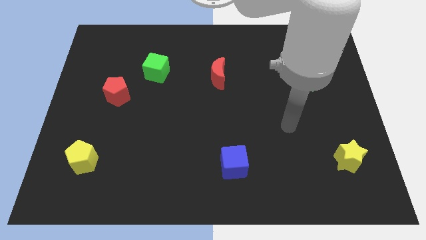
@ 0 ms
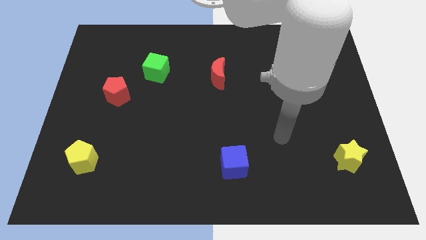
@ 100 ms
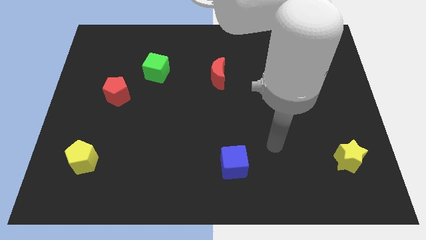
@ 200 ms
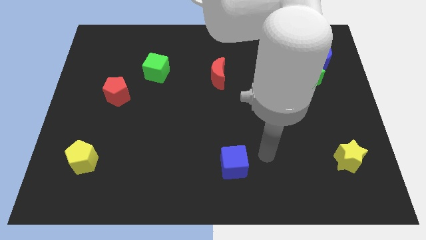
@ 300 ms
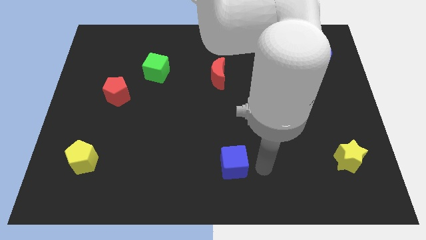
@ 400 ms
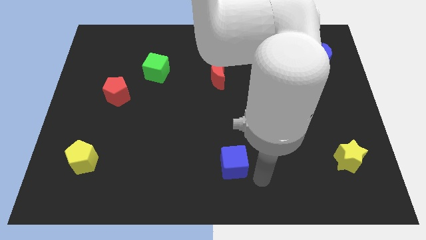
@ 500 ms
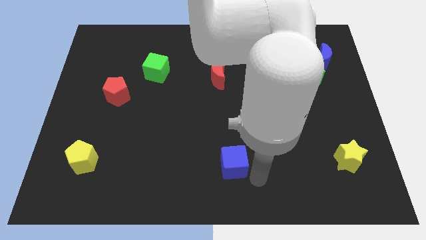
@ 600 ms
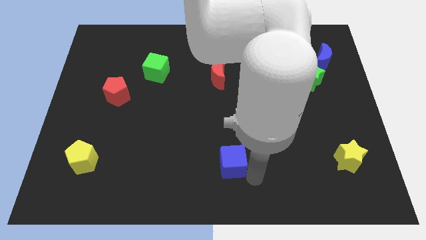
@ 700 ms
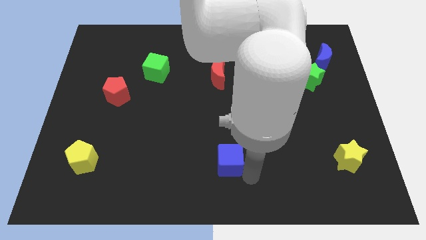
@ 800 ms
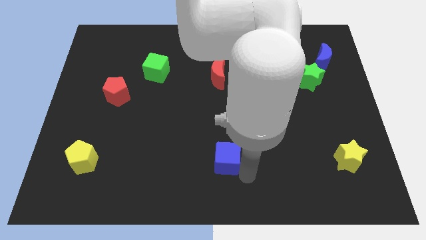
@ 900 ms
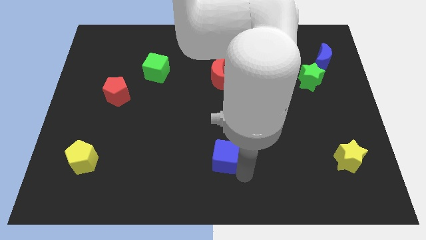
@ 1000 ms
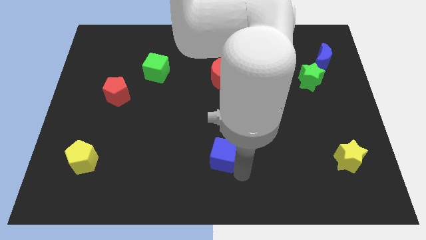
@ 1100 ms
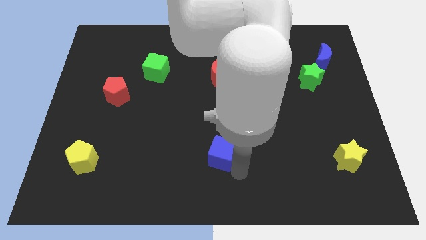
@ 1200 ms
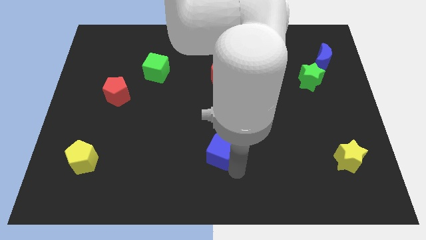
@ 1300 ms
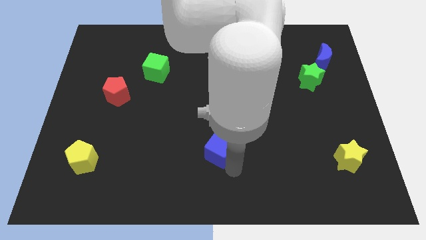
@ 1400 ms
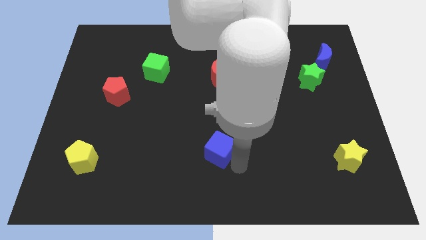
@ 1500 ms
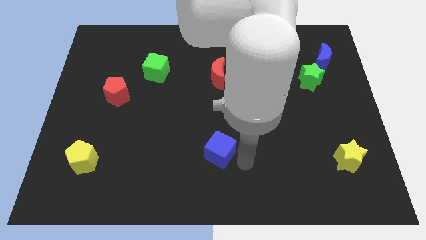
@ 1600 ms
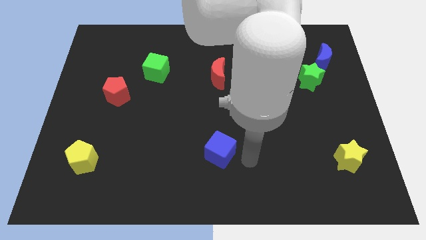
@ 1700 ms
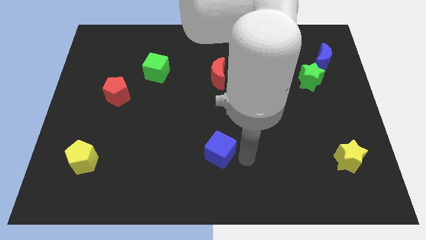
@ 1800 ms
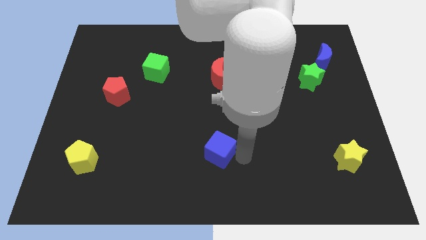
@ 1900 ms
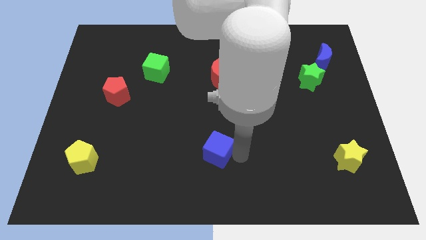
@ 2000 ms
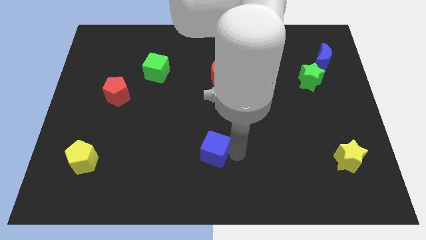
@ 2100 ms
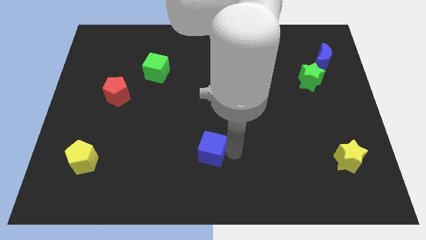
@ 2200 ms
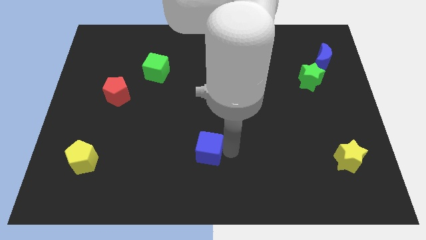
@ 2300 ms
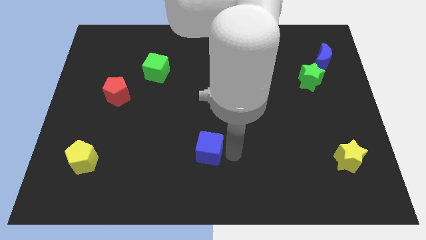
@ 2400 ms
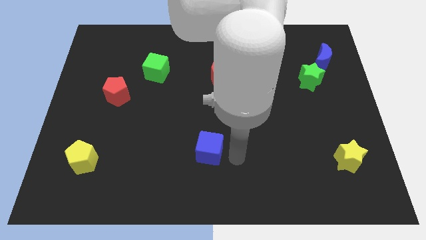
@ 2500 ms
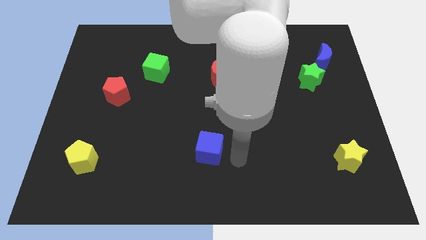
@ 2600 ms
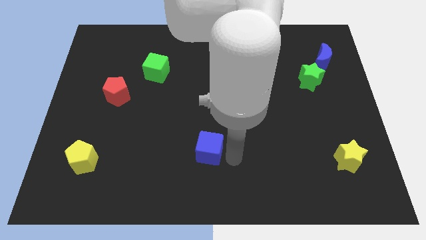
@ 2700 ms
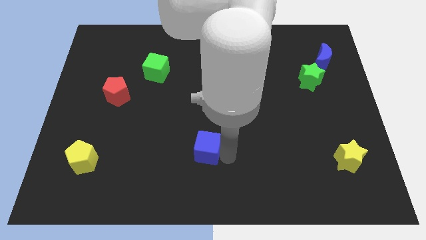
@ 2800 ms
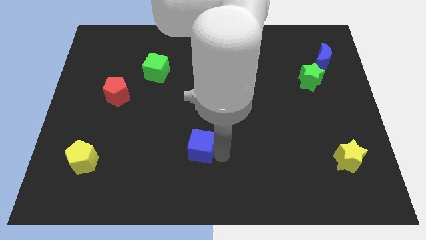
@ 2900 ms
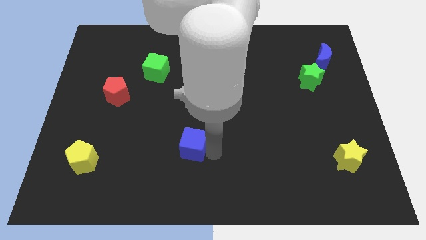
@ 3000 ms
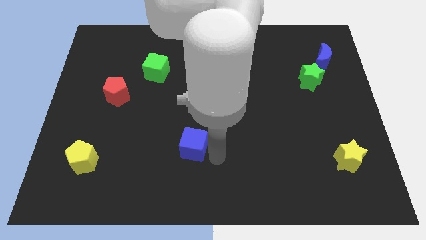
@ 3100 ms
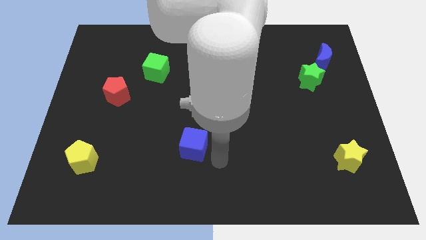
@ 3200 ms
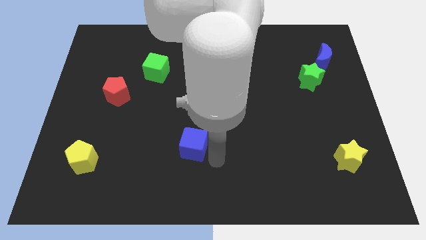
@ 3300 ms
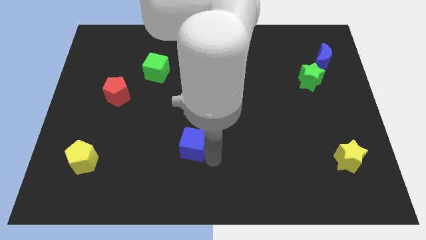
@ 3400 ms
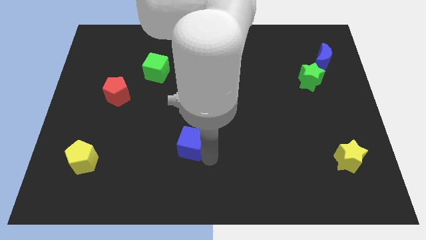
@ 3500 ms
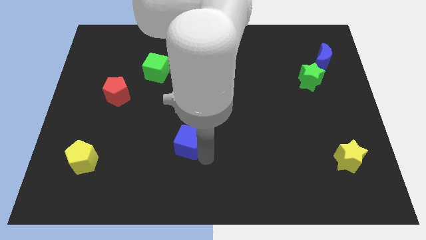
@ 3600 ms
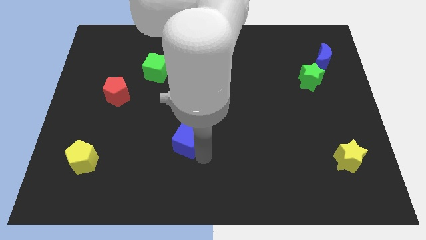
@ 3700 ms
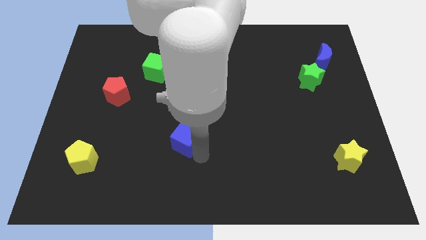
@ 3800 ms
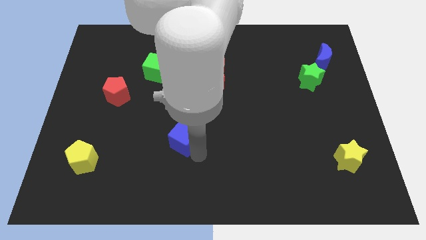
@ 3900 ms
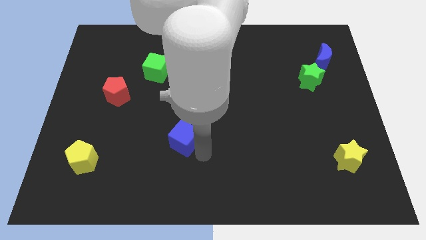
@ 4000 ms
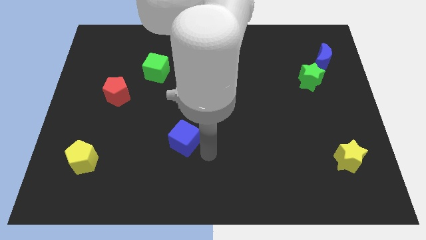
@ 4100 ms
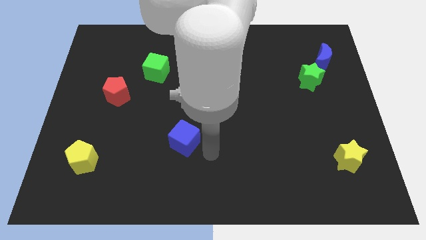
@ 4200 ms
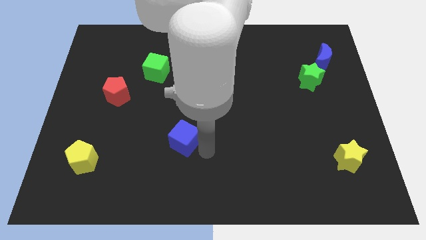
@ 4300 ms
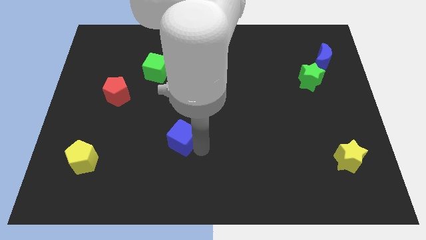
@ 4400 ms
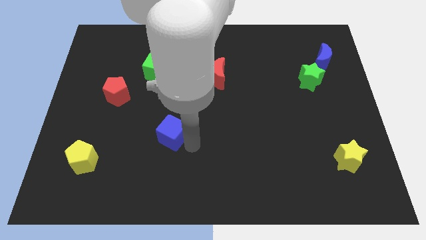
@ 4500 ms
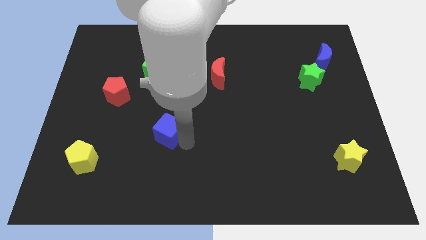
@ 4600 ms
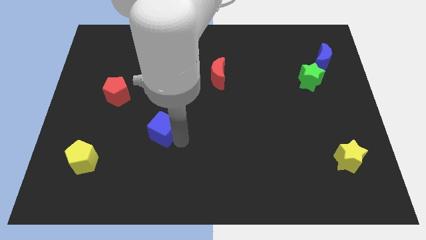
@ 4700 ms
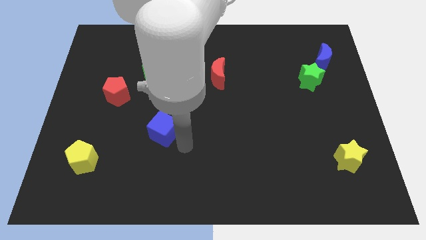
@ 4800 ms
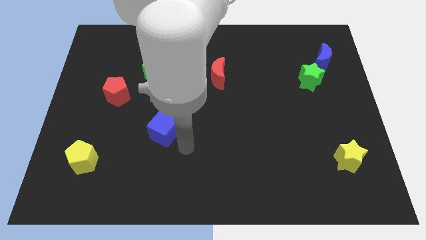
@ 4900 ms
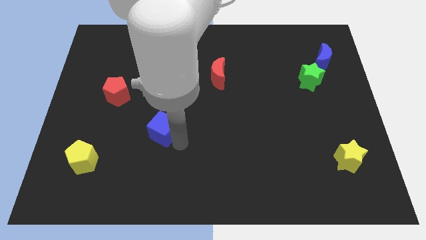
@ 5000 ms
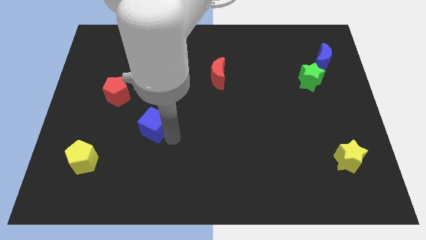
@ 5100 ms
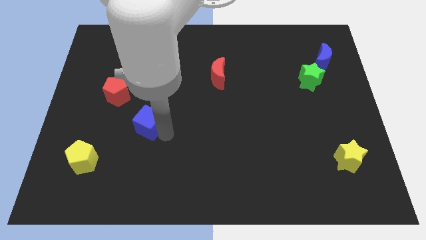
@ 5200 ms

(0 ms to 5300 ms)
move the blue cube to the bottom right side of the red pentagon

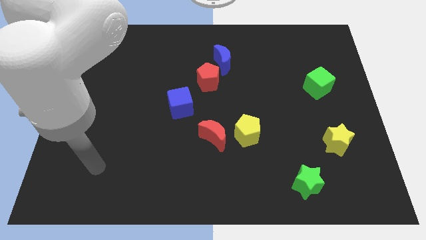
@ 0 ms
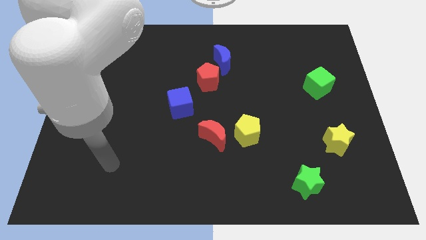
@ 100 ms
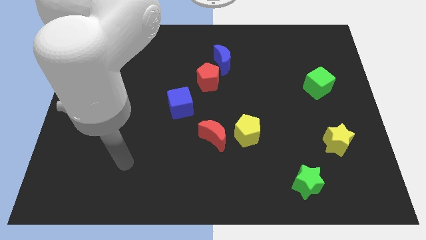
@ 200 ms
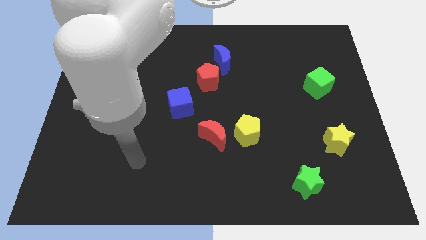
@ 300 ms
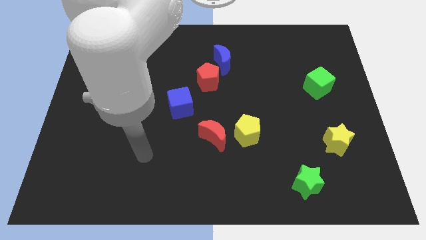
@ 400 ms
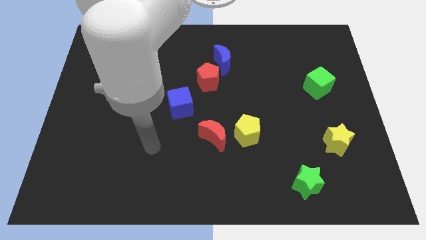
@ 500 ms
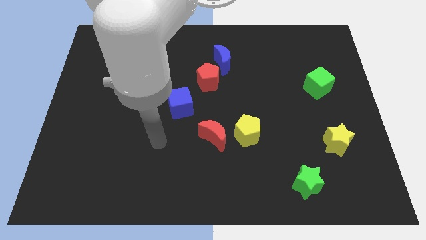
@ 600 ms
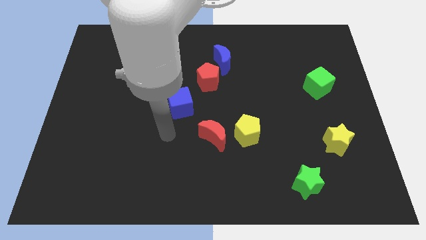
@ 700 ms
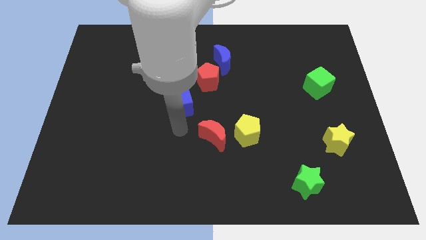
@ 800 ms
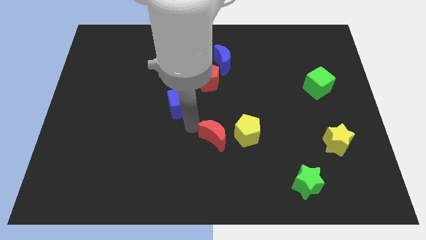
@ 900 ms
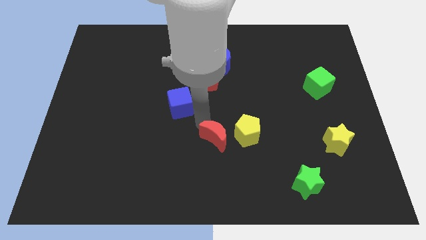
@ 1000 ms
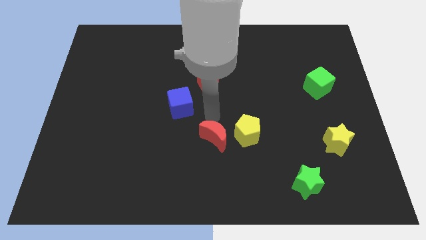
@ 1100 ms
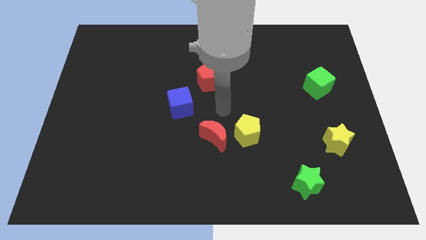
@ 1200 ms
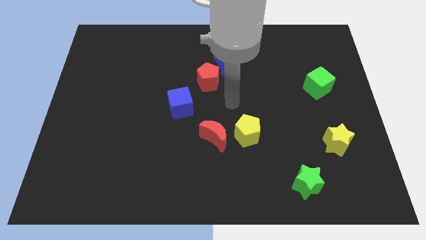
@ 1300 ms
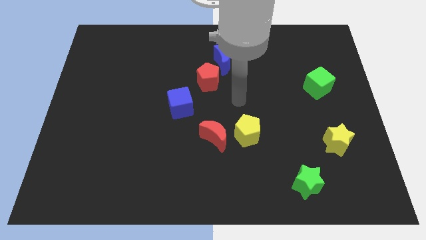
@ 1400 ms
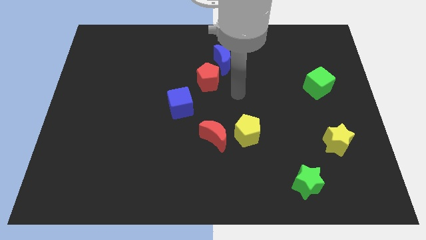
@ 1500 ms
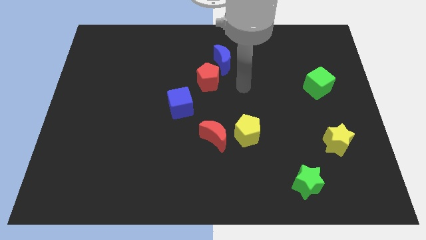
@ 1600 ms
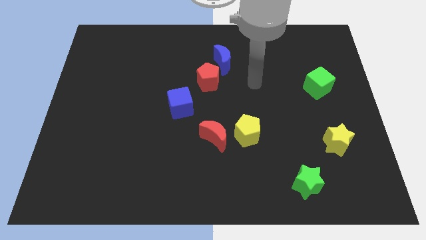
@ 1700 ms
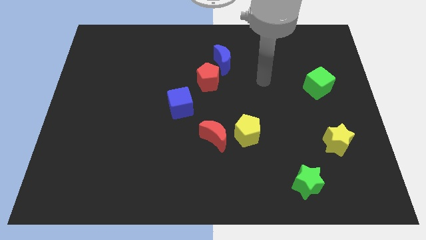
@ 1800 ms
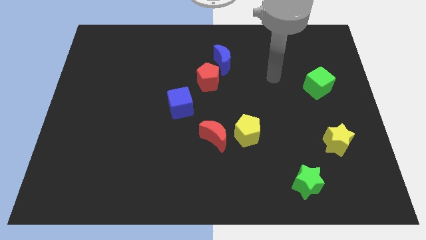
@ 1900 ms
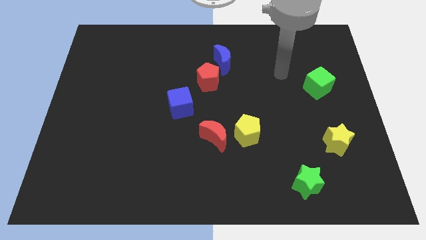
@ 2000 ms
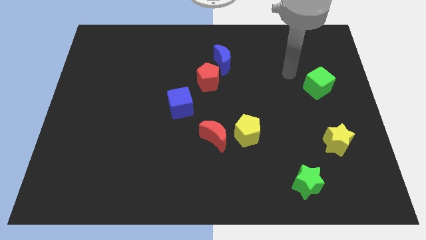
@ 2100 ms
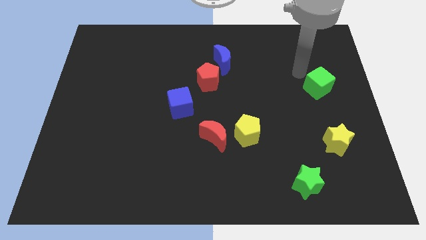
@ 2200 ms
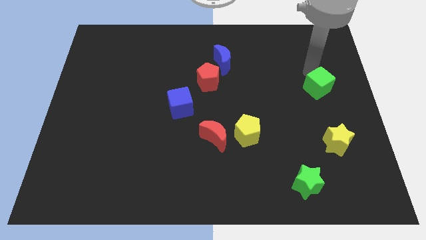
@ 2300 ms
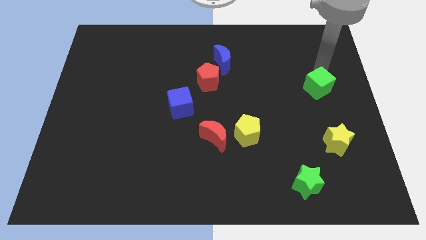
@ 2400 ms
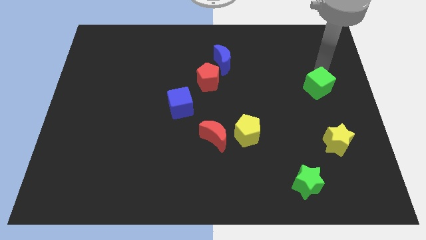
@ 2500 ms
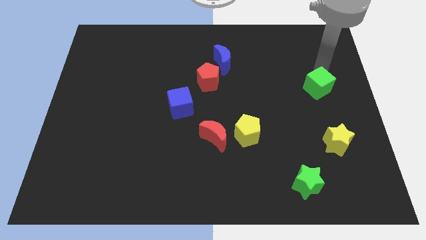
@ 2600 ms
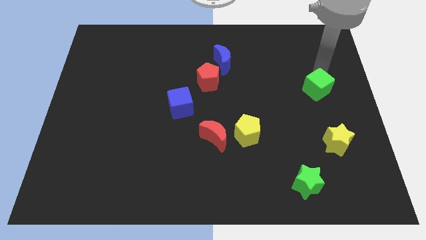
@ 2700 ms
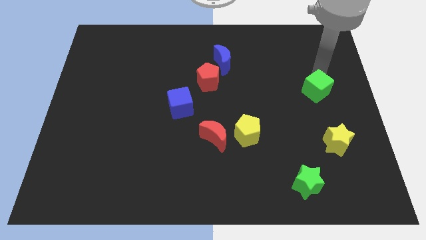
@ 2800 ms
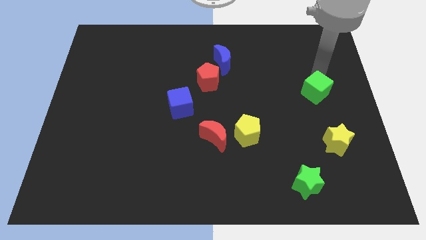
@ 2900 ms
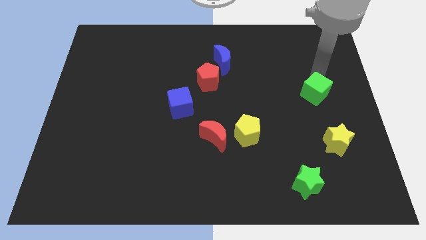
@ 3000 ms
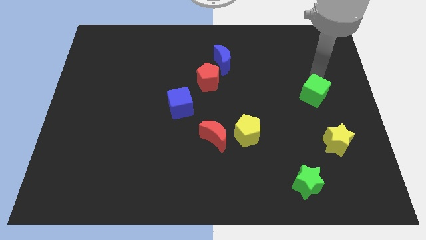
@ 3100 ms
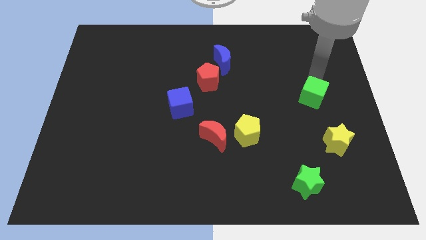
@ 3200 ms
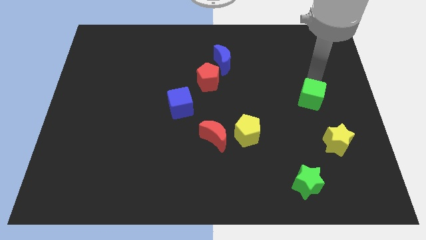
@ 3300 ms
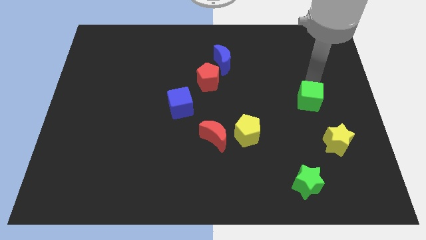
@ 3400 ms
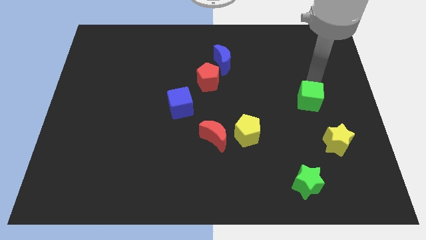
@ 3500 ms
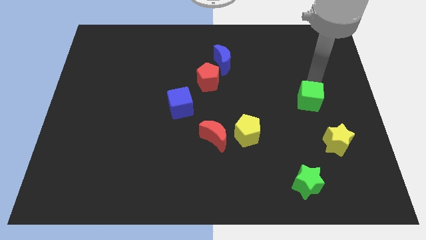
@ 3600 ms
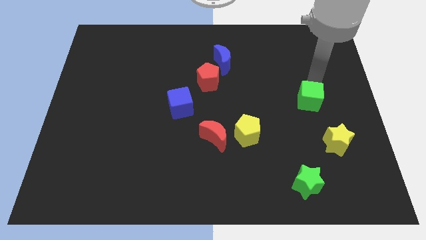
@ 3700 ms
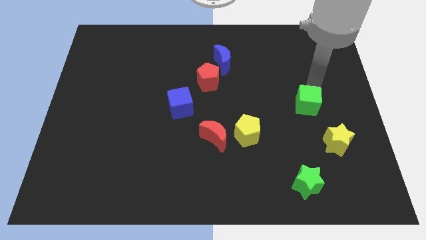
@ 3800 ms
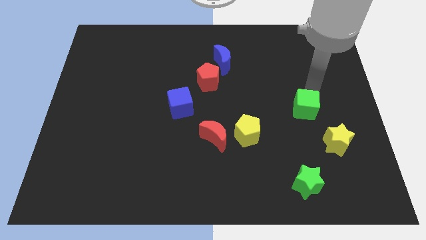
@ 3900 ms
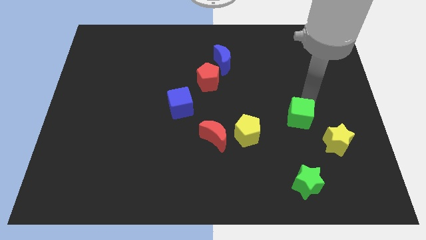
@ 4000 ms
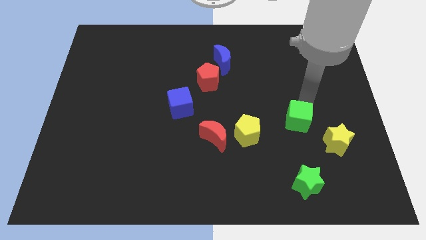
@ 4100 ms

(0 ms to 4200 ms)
put the green cube to the top side of the green star
